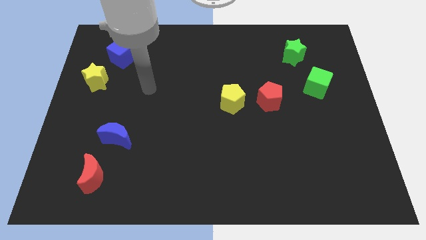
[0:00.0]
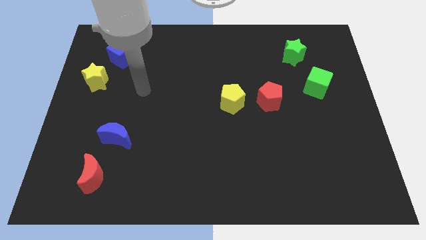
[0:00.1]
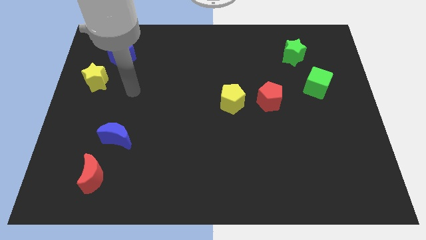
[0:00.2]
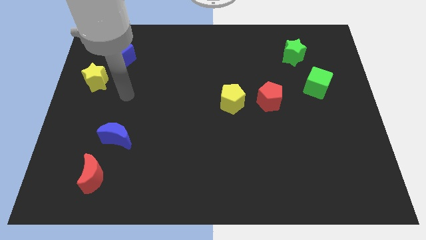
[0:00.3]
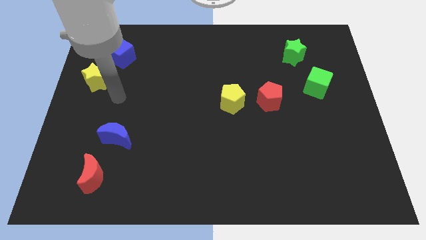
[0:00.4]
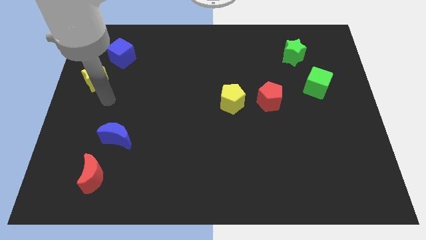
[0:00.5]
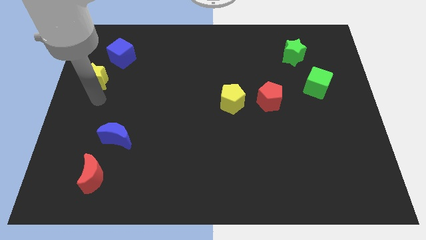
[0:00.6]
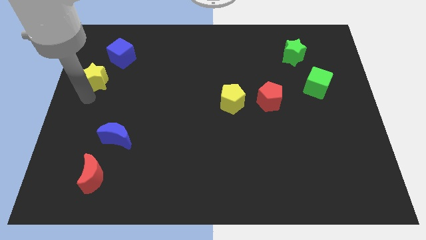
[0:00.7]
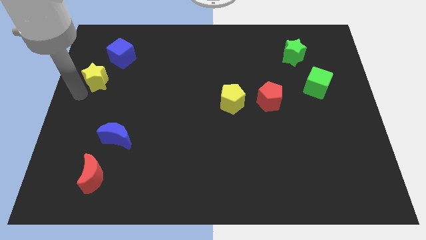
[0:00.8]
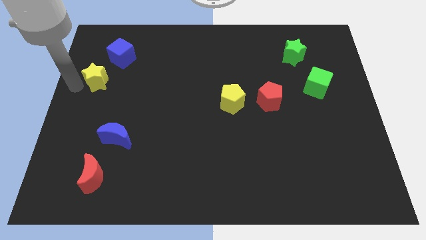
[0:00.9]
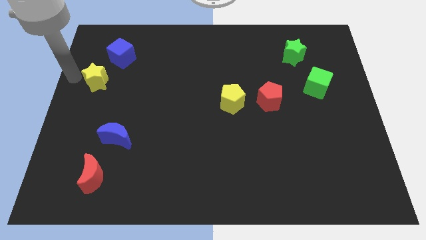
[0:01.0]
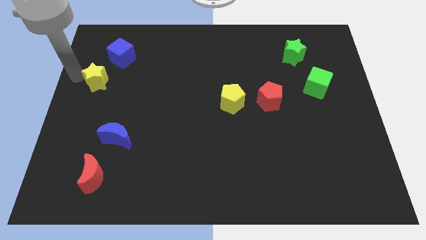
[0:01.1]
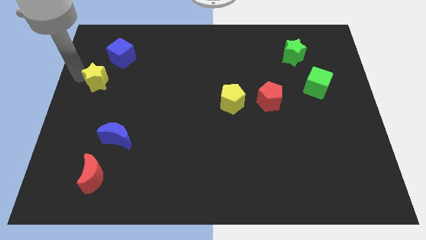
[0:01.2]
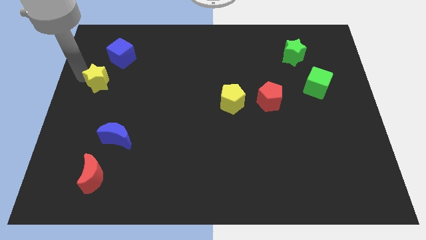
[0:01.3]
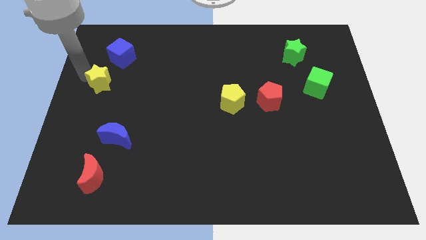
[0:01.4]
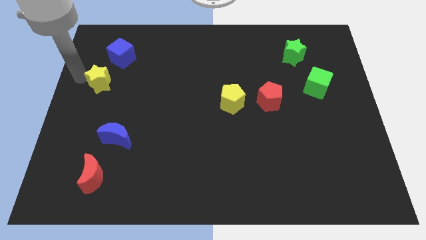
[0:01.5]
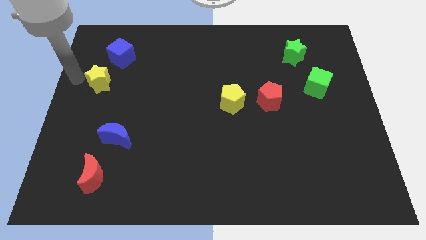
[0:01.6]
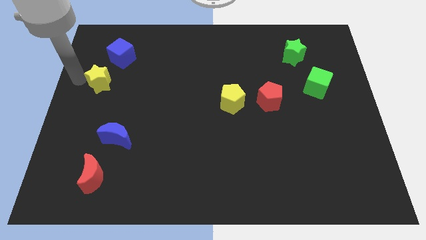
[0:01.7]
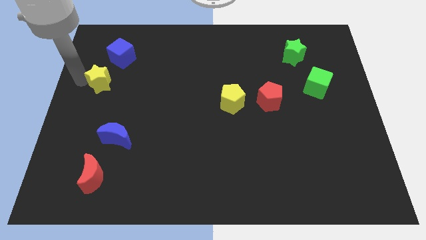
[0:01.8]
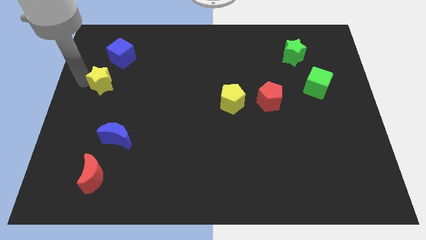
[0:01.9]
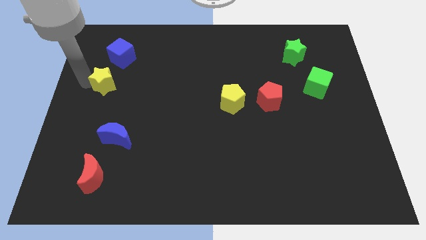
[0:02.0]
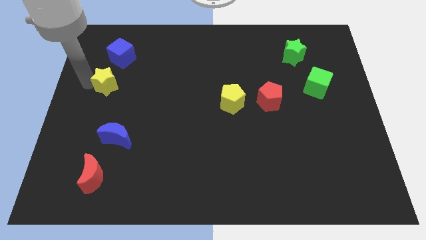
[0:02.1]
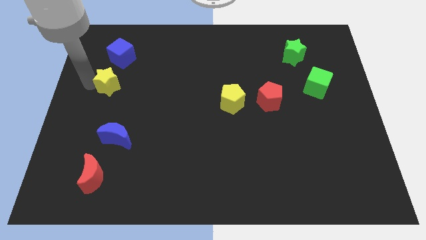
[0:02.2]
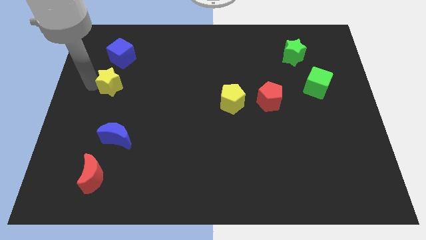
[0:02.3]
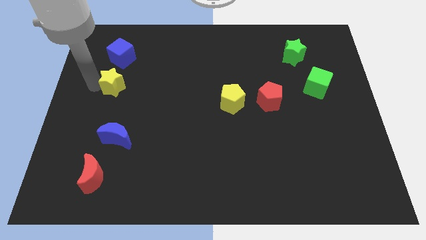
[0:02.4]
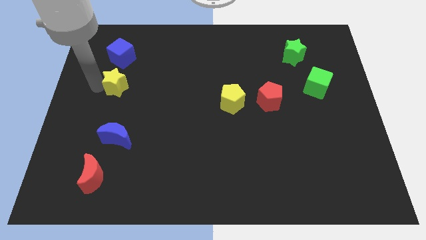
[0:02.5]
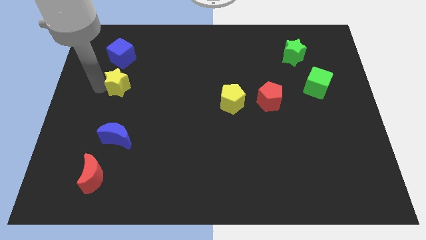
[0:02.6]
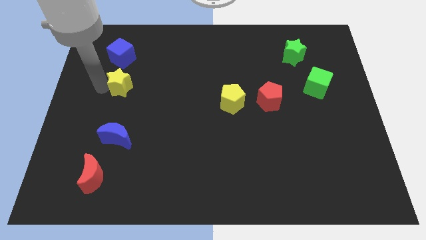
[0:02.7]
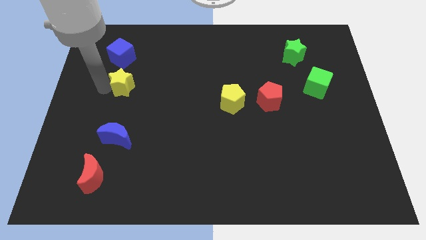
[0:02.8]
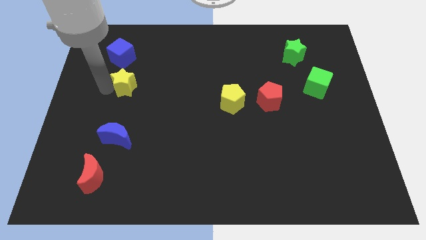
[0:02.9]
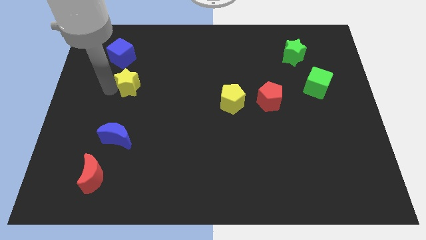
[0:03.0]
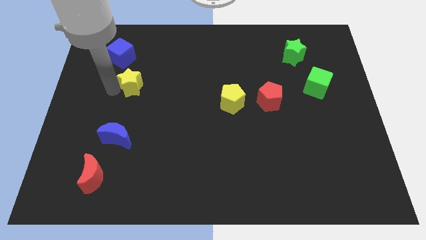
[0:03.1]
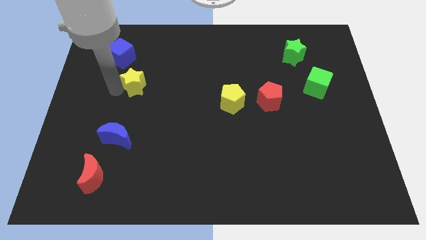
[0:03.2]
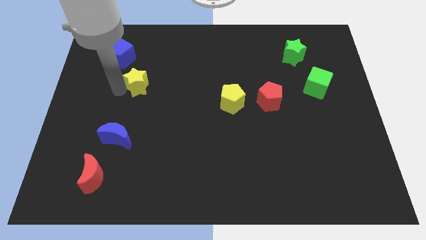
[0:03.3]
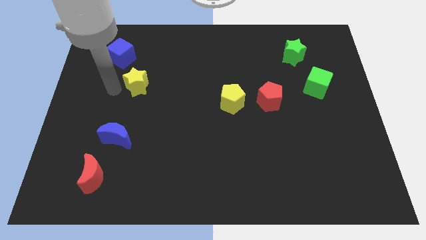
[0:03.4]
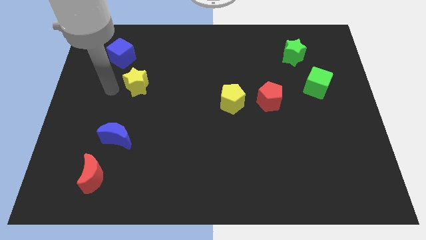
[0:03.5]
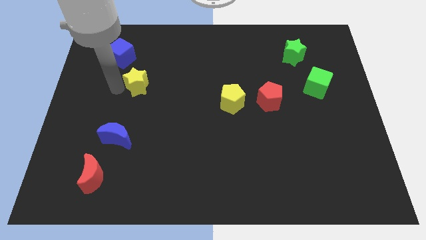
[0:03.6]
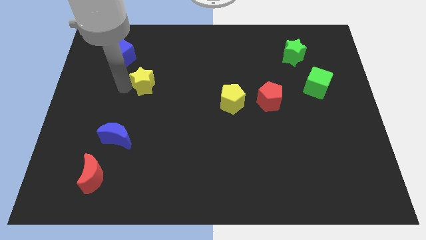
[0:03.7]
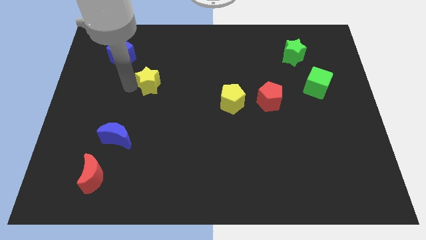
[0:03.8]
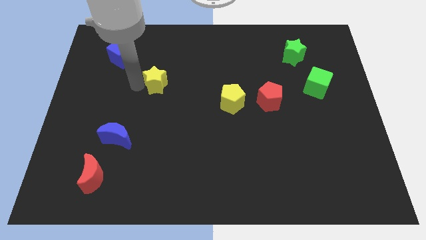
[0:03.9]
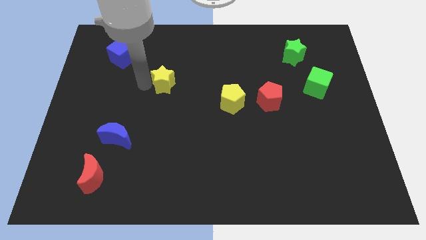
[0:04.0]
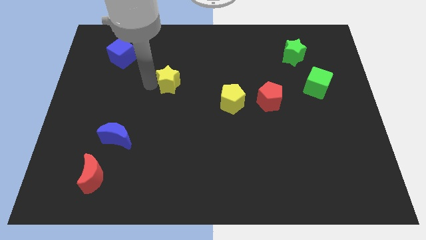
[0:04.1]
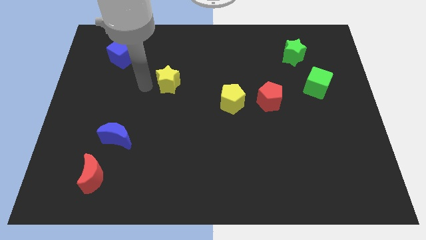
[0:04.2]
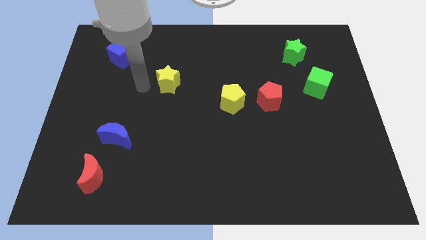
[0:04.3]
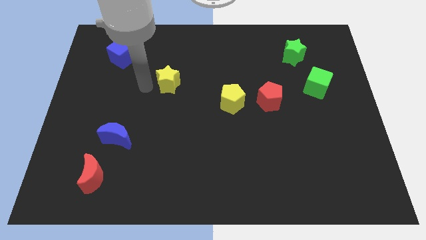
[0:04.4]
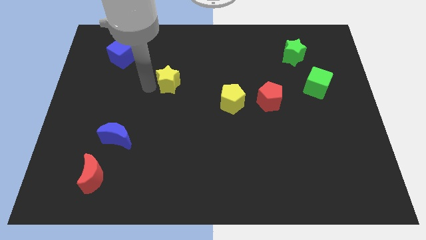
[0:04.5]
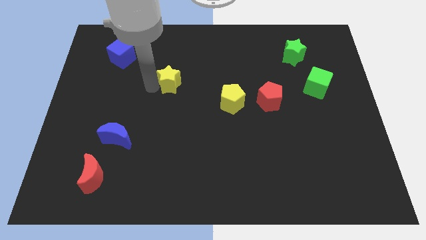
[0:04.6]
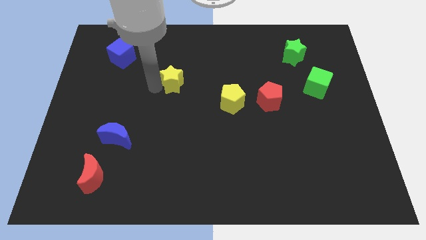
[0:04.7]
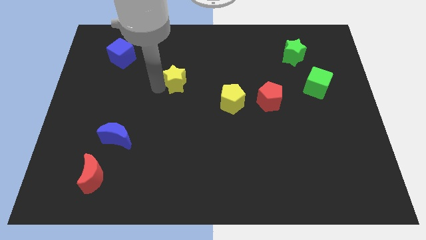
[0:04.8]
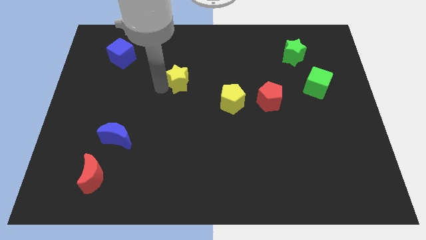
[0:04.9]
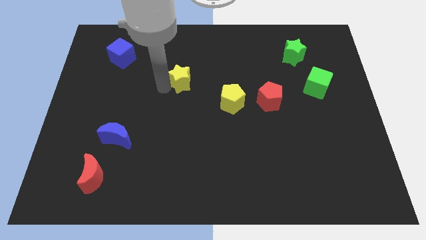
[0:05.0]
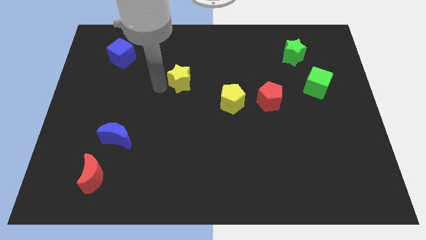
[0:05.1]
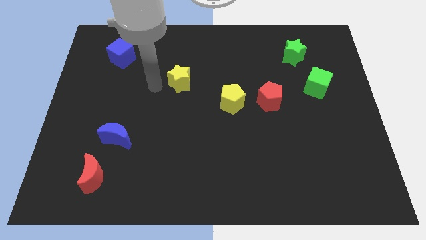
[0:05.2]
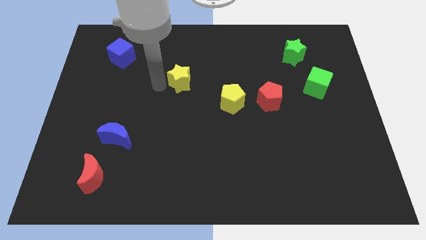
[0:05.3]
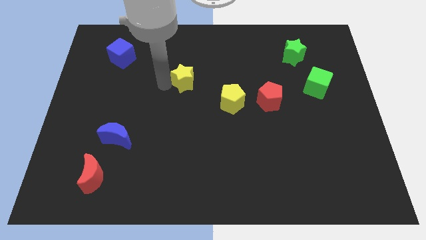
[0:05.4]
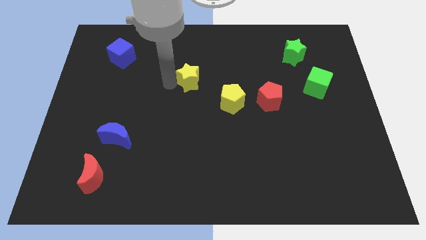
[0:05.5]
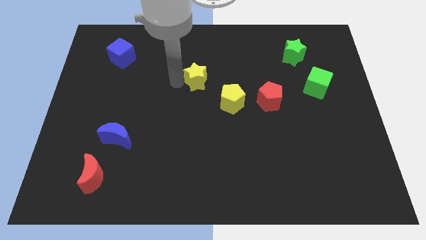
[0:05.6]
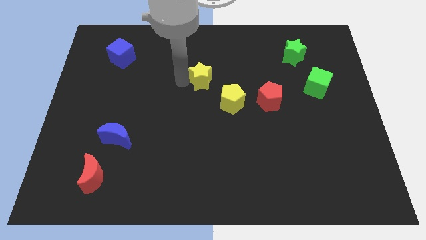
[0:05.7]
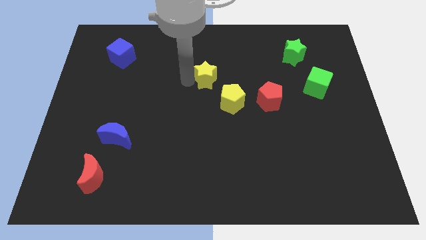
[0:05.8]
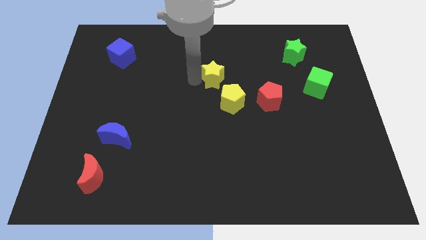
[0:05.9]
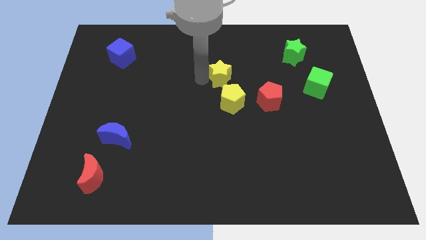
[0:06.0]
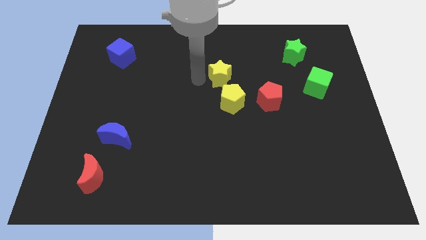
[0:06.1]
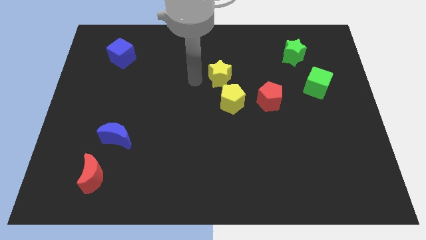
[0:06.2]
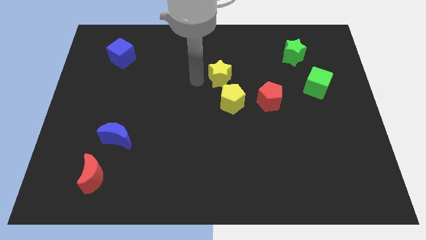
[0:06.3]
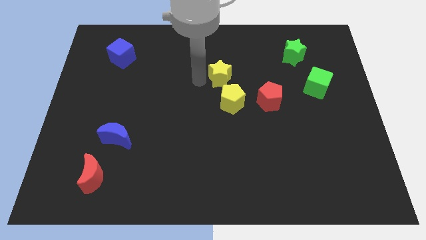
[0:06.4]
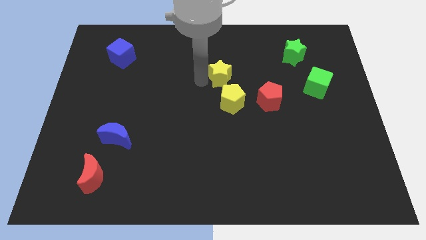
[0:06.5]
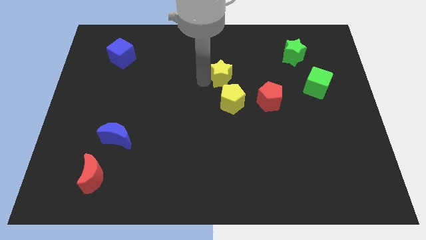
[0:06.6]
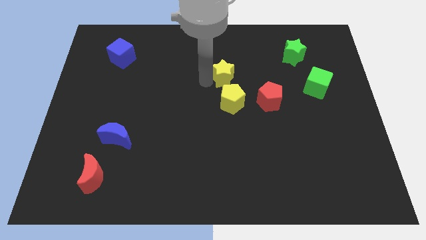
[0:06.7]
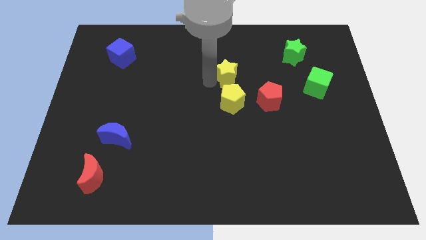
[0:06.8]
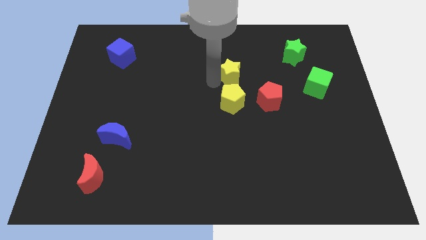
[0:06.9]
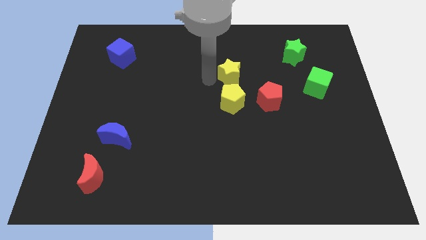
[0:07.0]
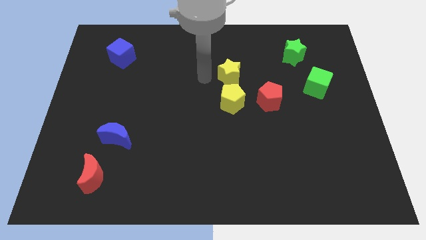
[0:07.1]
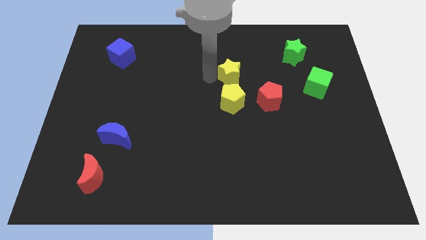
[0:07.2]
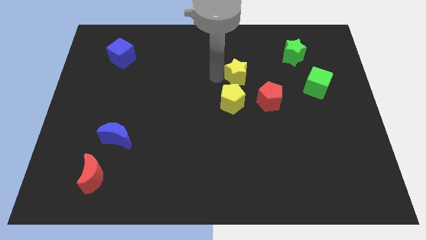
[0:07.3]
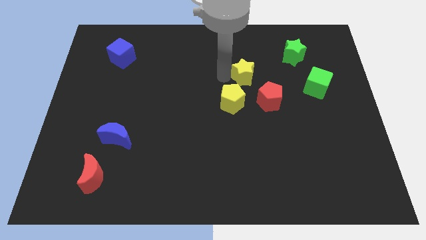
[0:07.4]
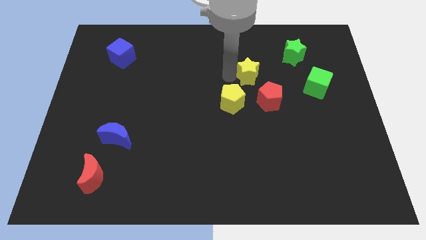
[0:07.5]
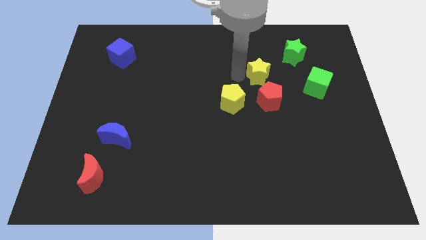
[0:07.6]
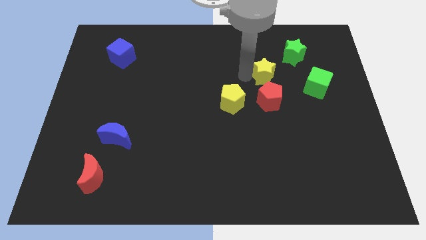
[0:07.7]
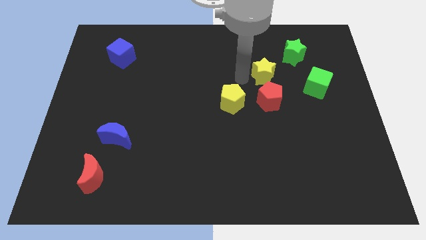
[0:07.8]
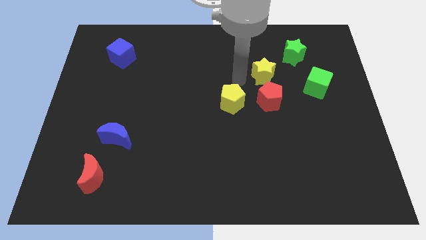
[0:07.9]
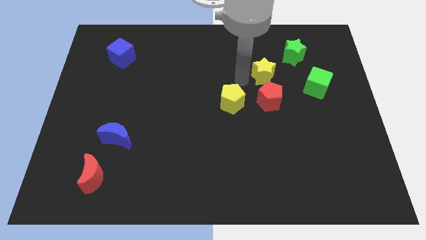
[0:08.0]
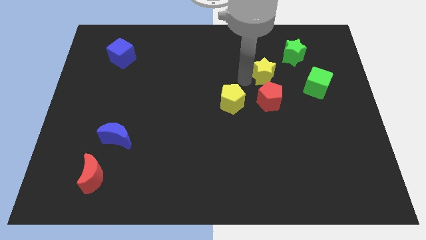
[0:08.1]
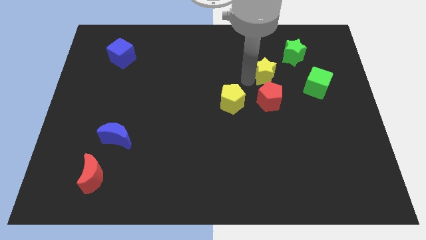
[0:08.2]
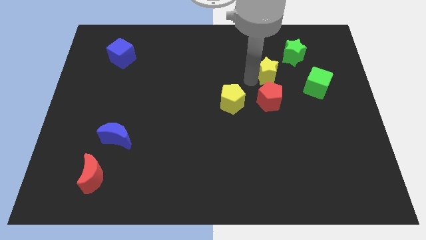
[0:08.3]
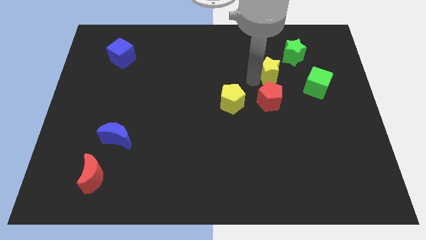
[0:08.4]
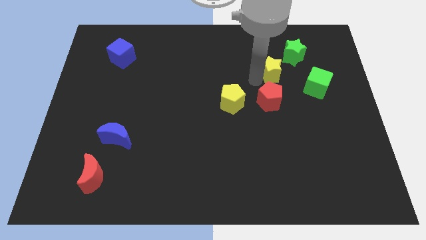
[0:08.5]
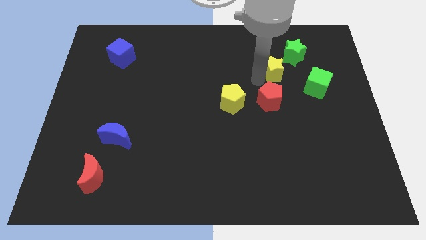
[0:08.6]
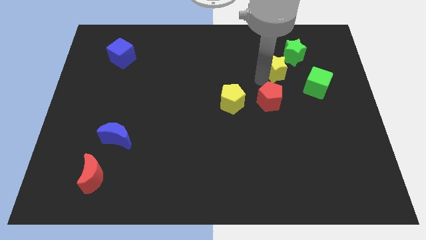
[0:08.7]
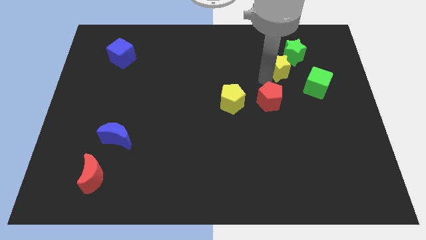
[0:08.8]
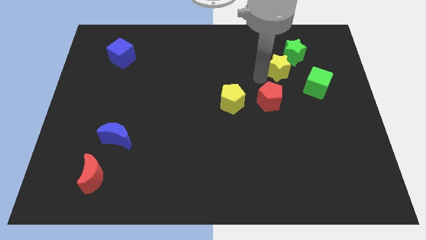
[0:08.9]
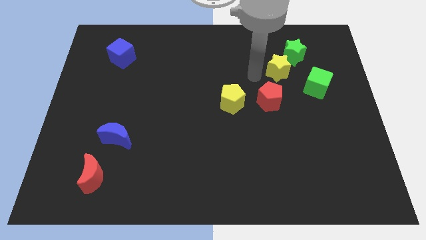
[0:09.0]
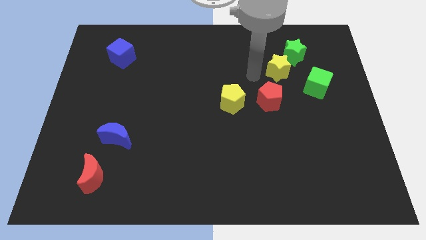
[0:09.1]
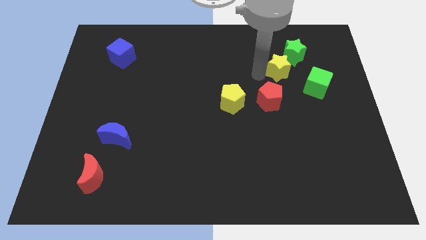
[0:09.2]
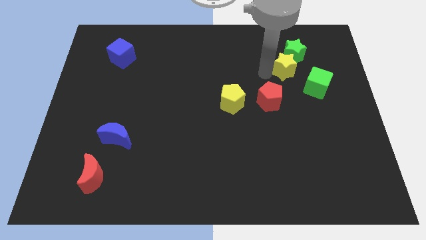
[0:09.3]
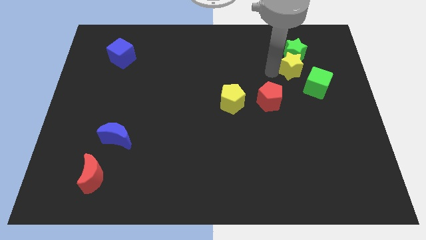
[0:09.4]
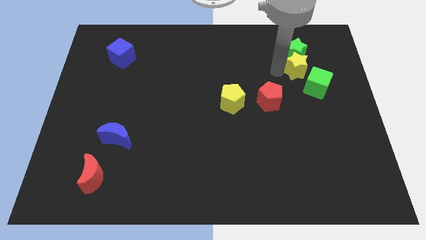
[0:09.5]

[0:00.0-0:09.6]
put the yellow star above the green cube
